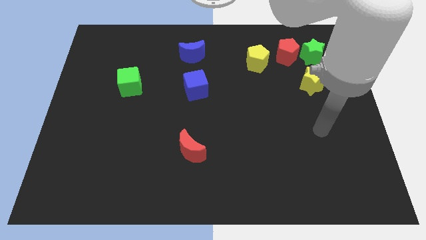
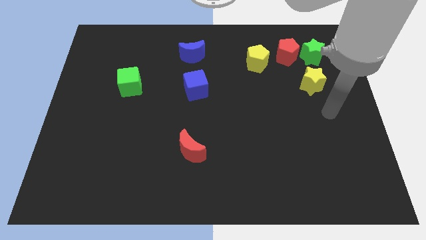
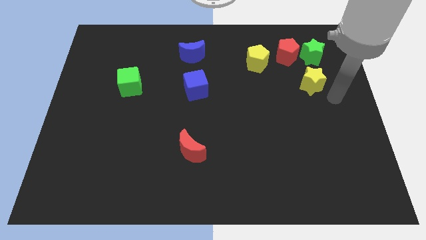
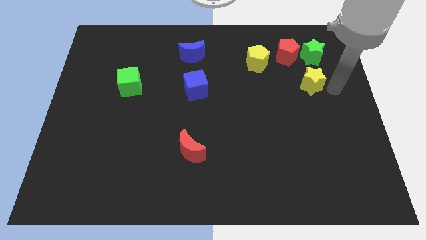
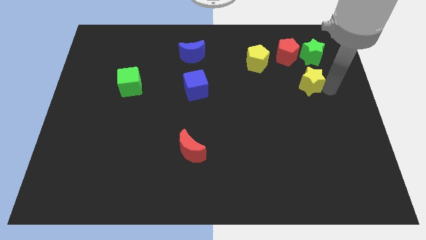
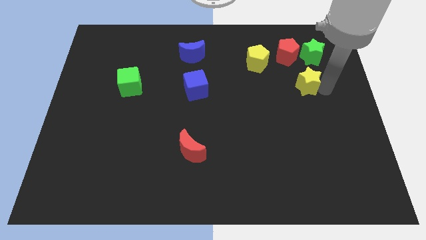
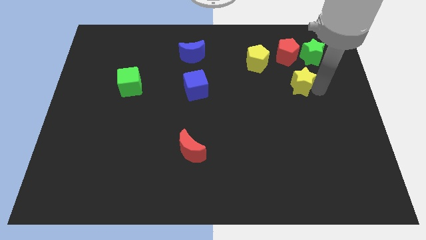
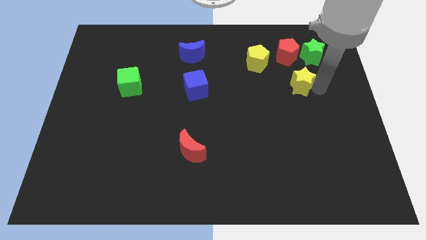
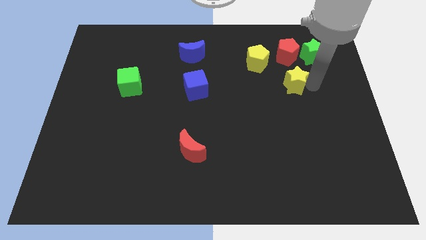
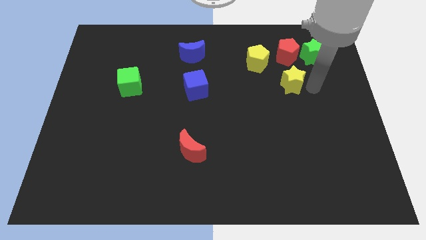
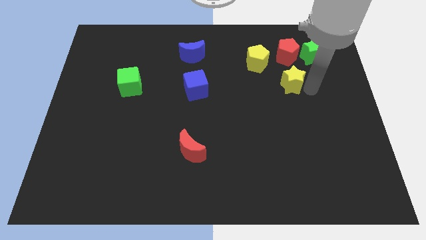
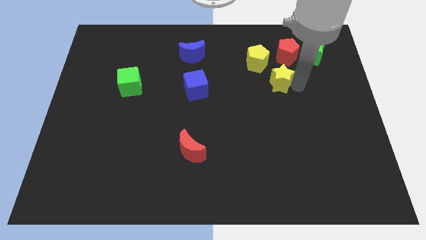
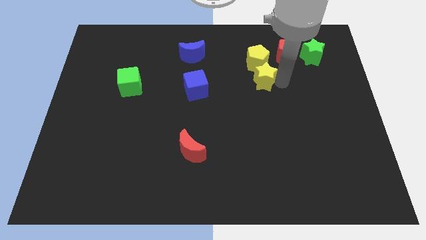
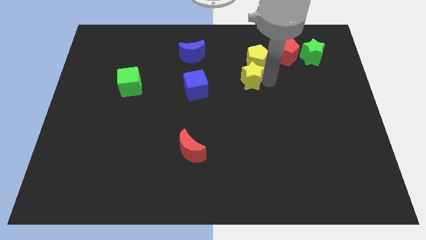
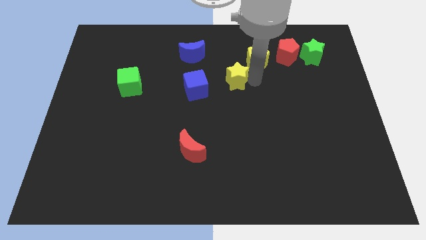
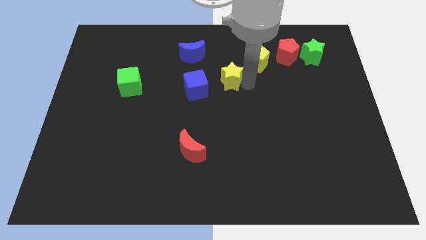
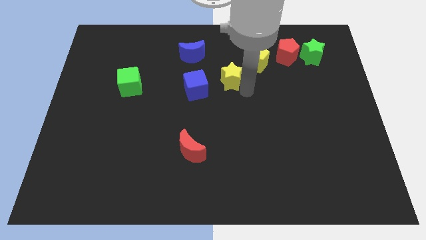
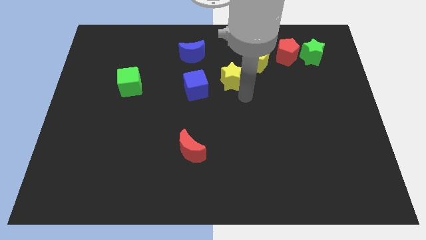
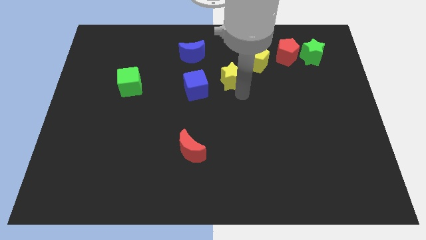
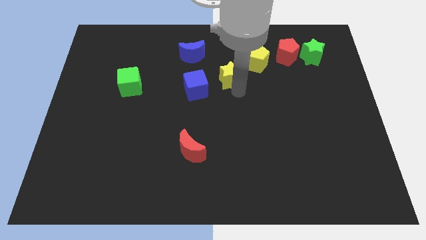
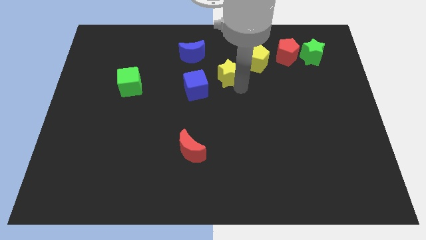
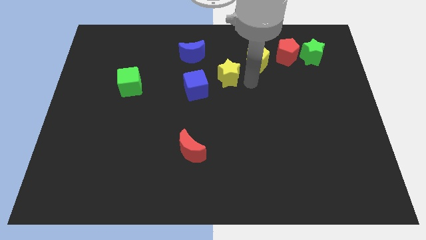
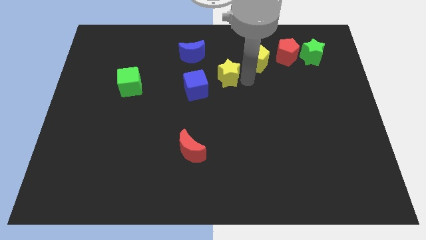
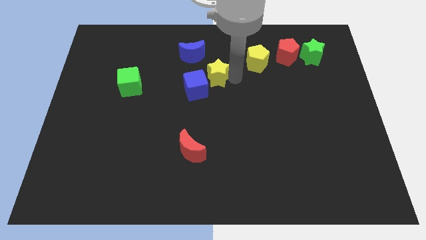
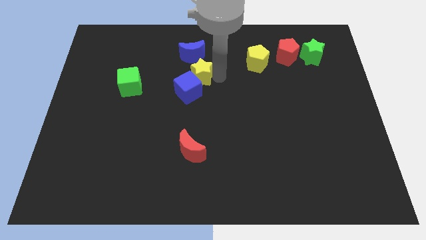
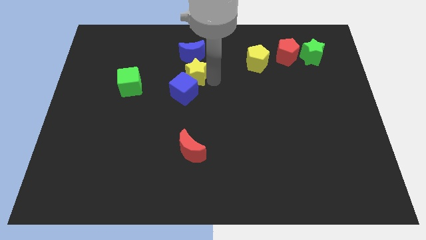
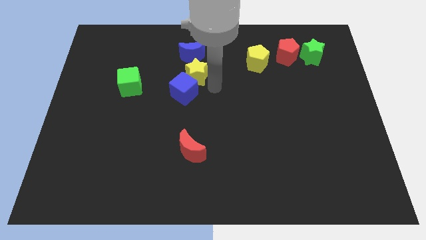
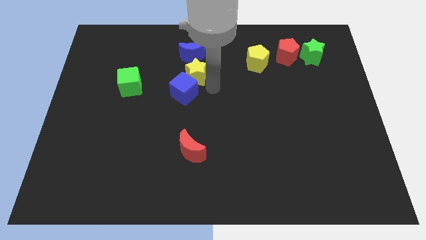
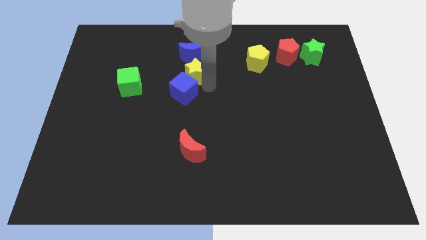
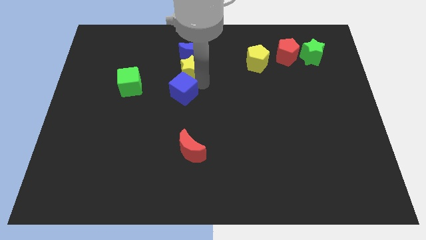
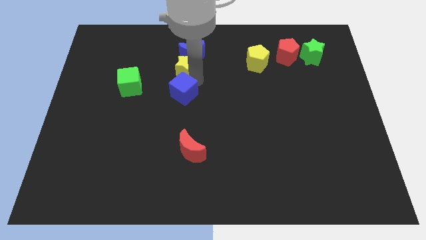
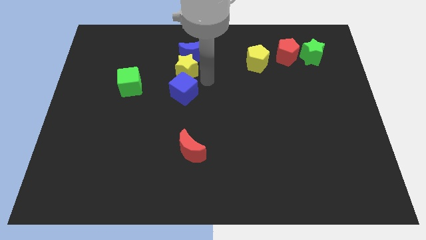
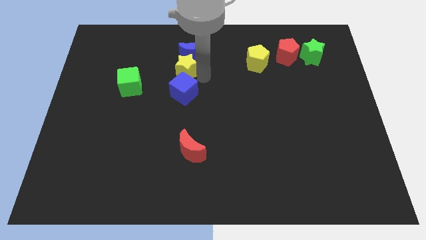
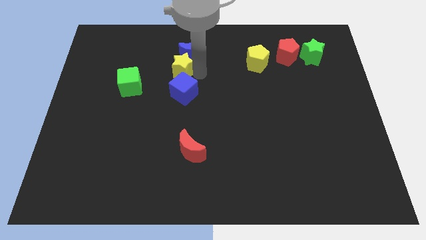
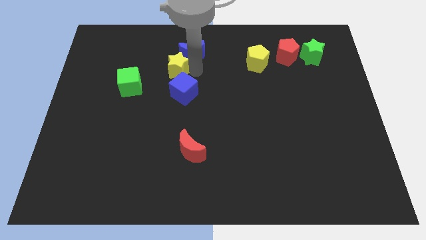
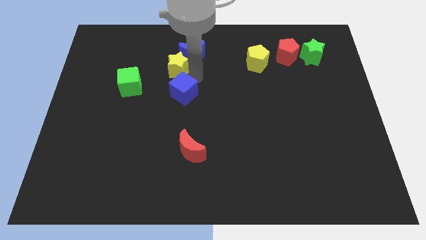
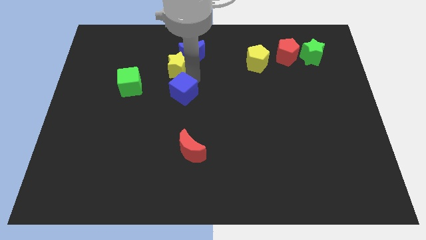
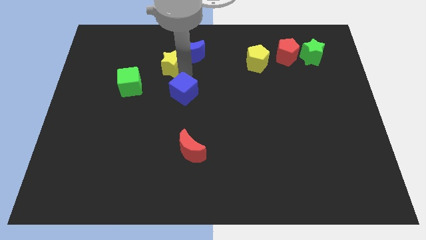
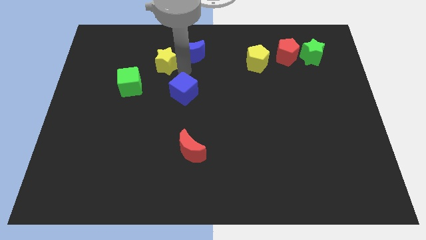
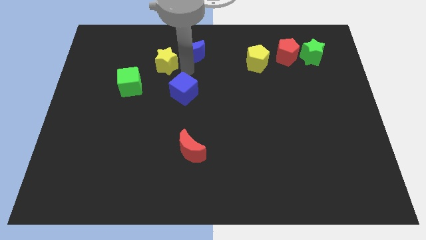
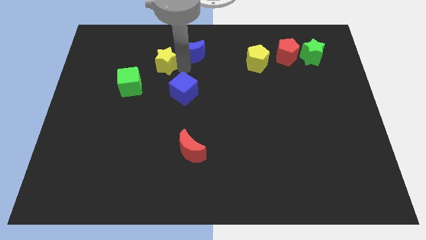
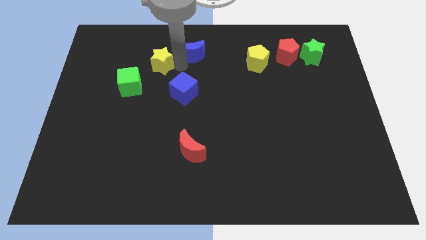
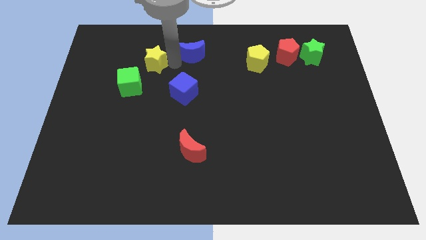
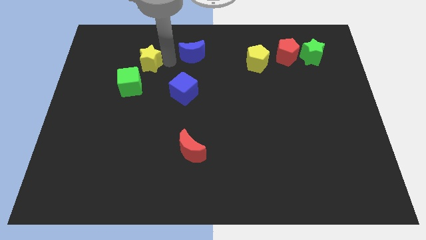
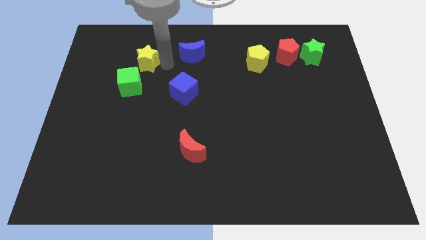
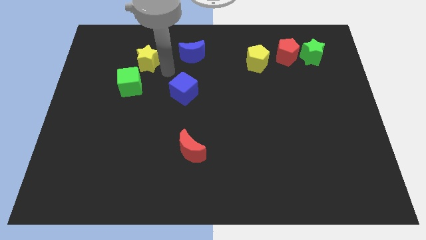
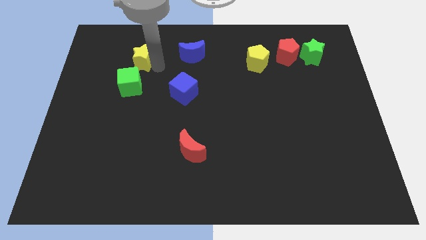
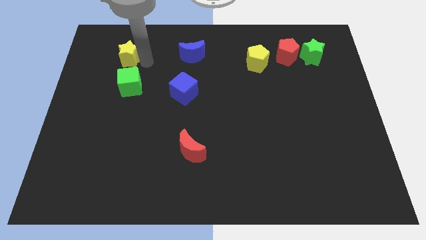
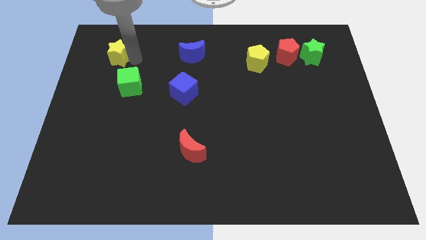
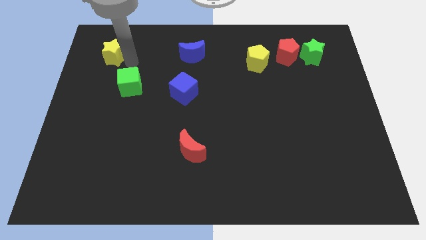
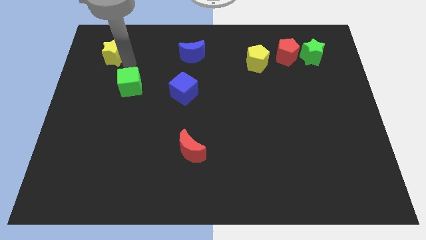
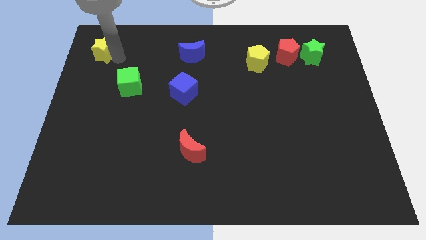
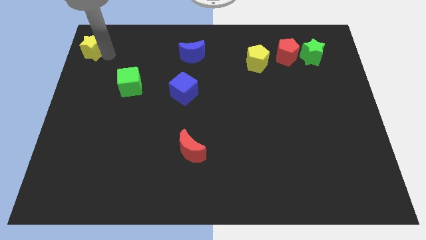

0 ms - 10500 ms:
slide the yellow star to the top left corner

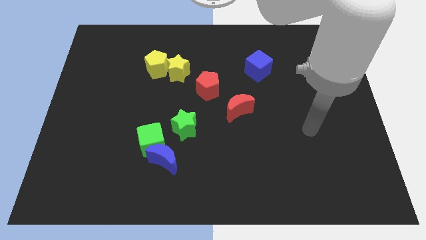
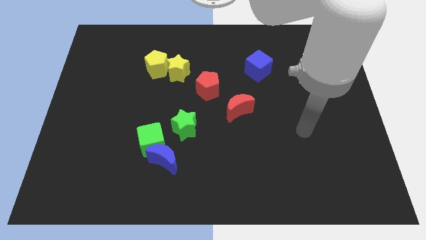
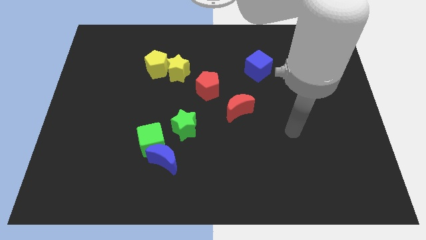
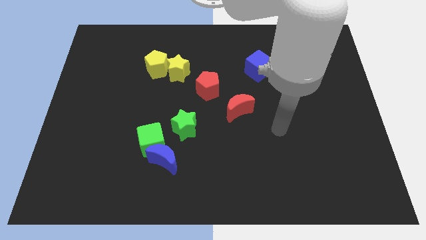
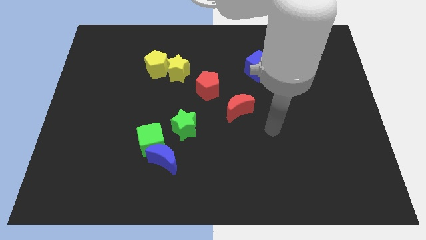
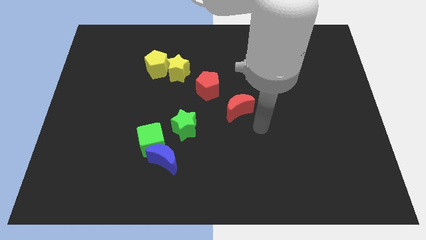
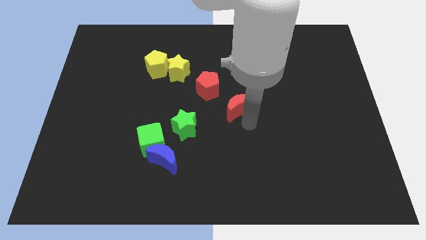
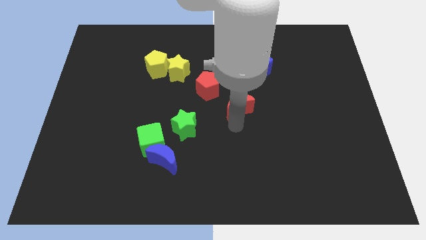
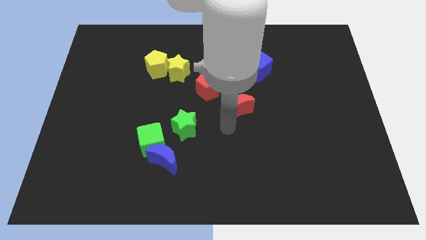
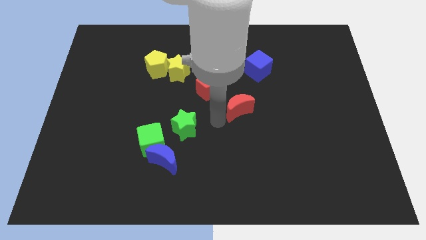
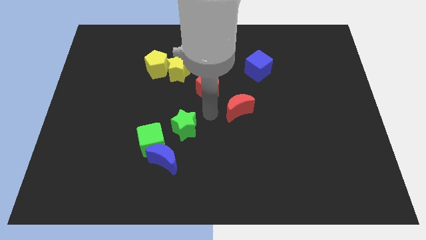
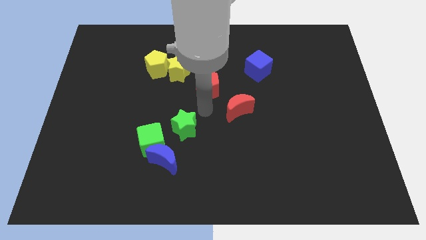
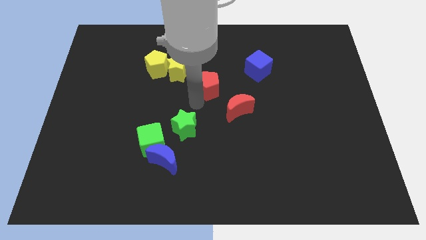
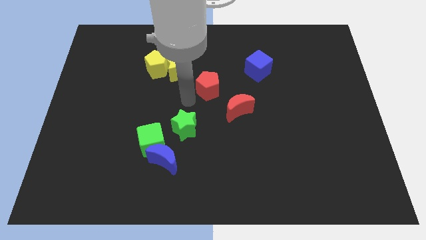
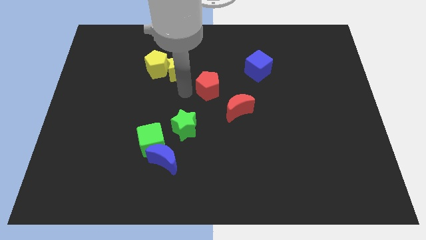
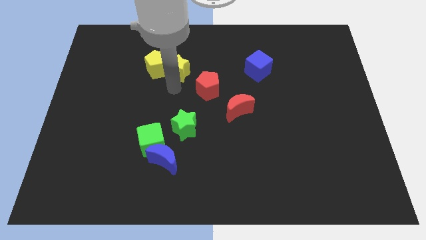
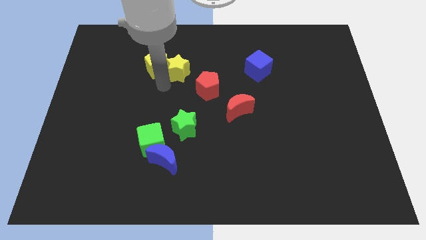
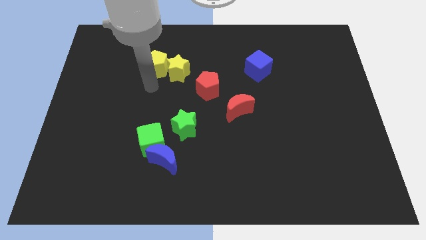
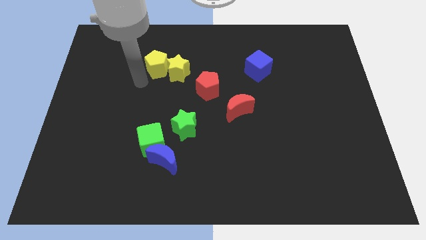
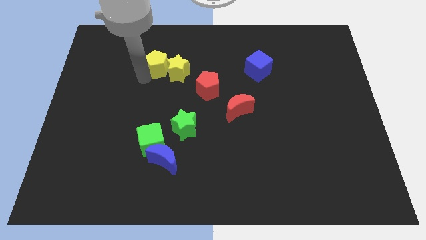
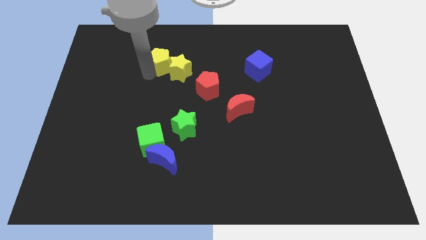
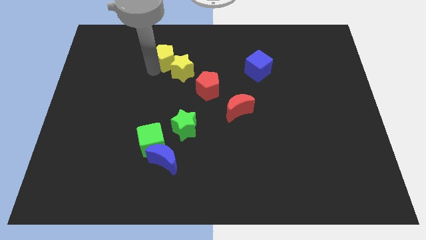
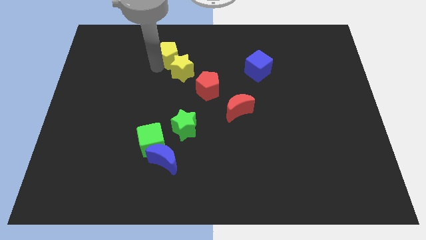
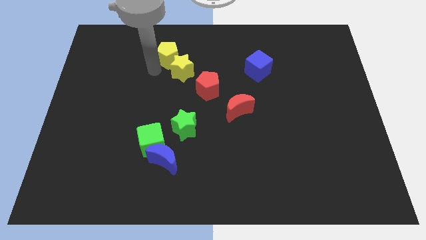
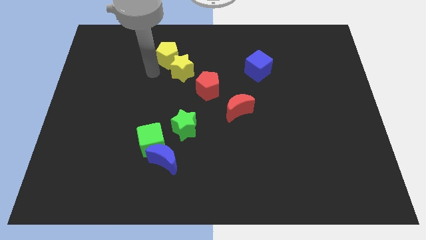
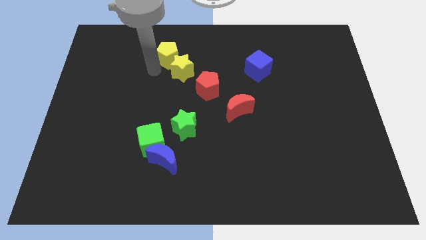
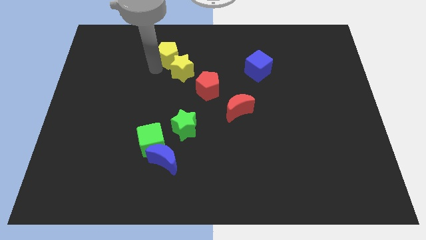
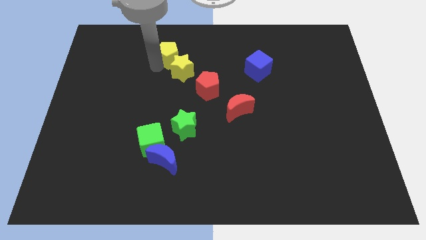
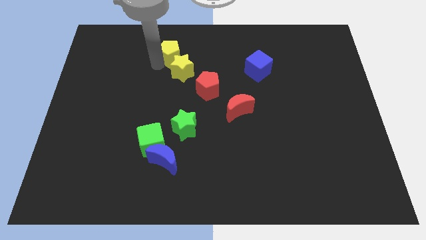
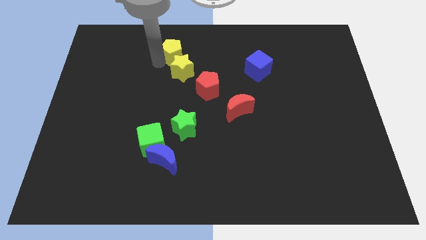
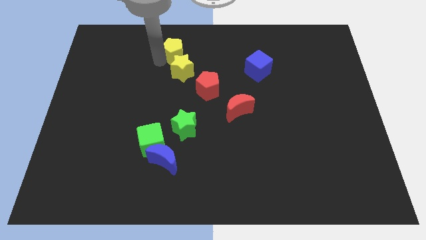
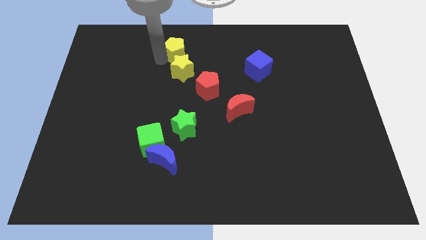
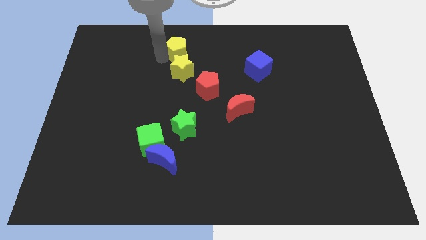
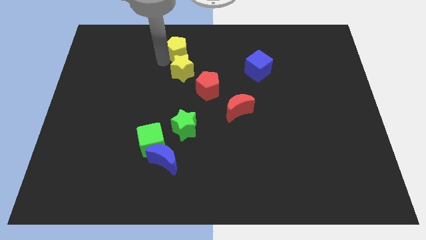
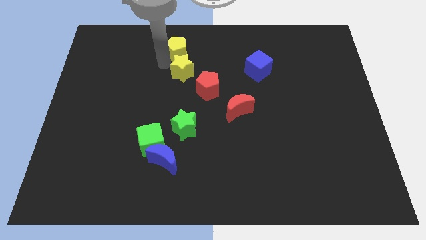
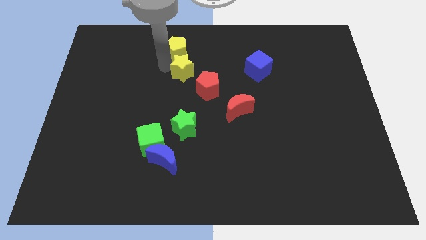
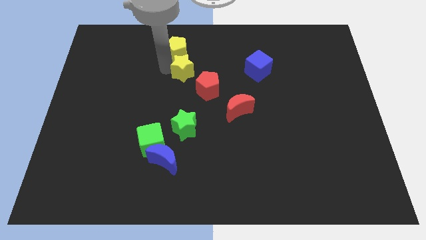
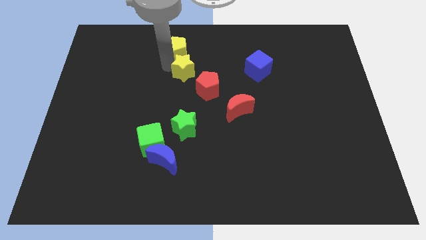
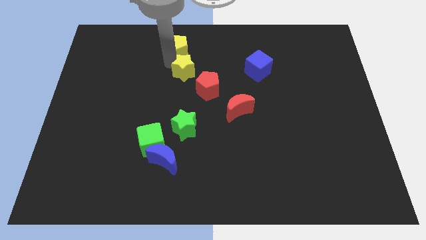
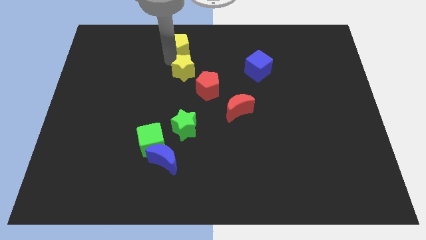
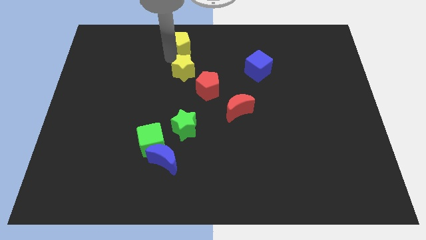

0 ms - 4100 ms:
push the yellow pentagon to the towards your base
